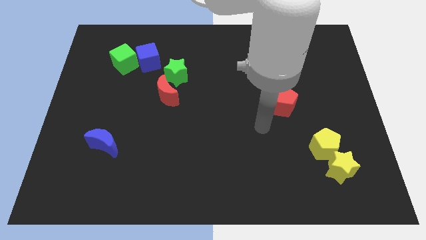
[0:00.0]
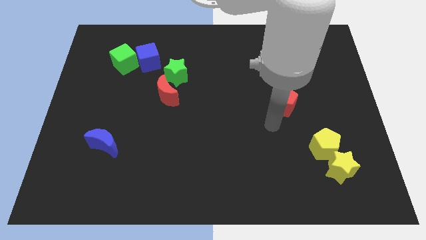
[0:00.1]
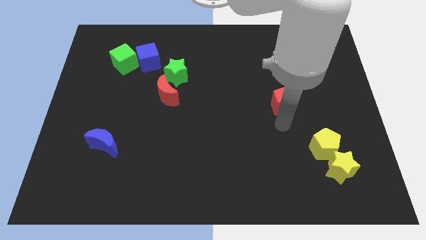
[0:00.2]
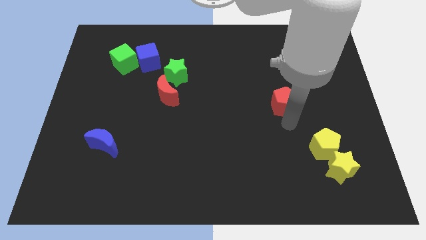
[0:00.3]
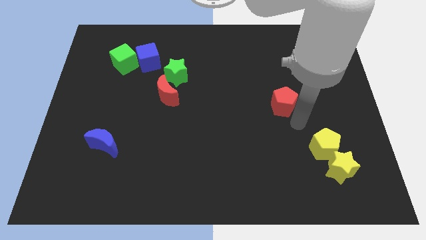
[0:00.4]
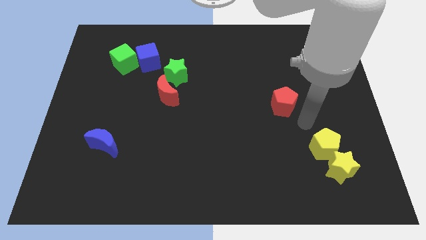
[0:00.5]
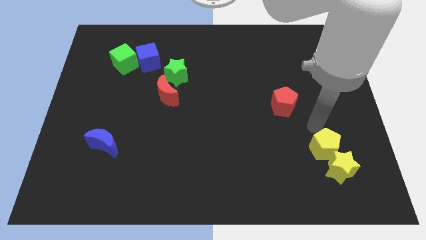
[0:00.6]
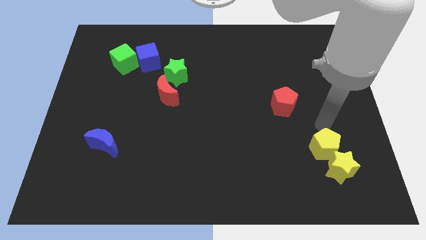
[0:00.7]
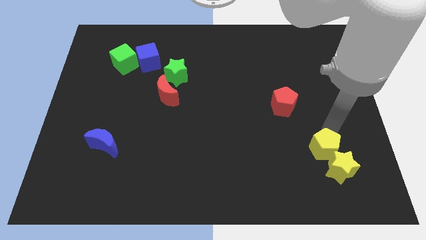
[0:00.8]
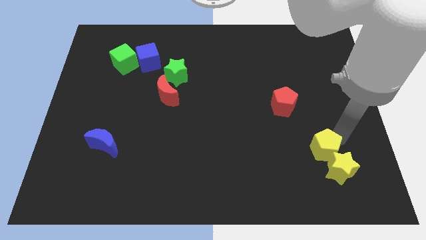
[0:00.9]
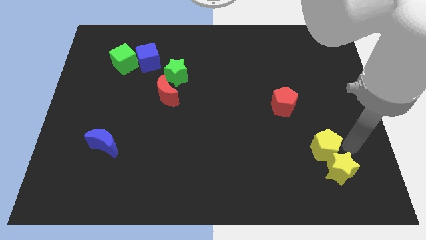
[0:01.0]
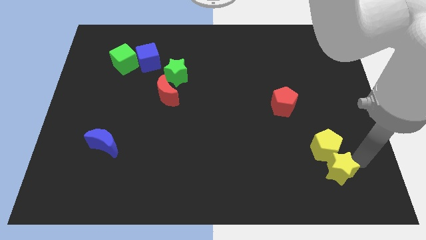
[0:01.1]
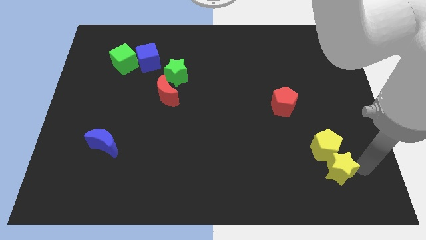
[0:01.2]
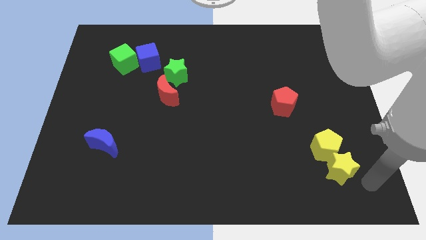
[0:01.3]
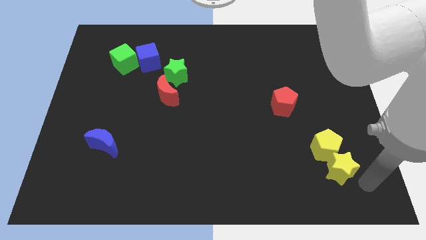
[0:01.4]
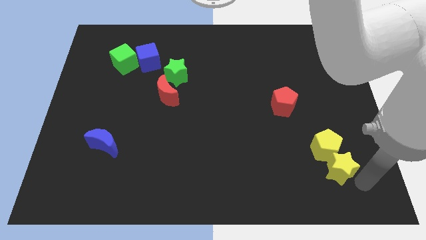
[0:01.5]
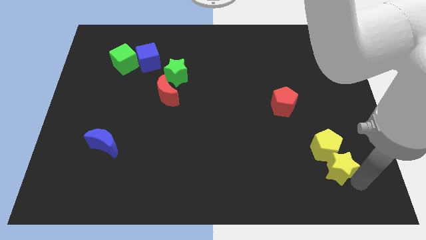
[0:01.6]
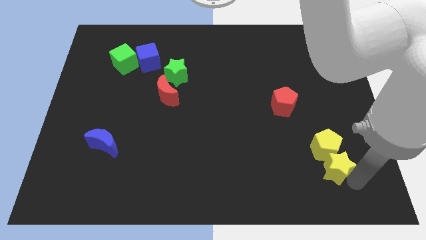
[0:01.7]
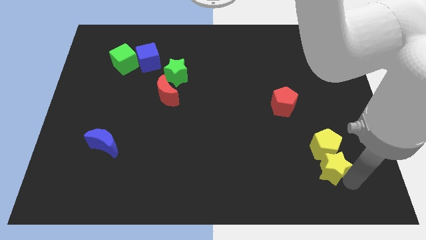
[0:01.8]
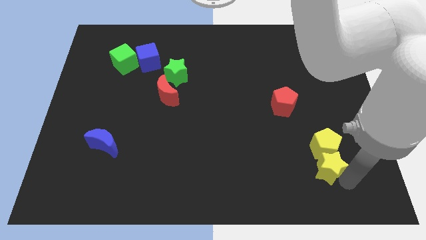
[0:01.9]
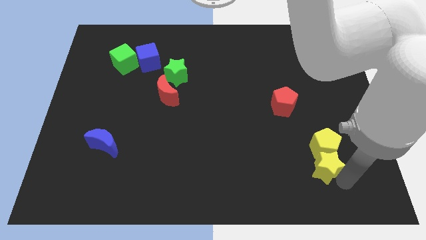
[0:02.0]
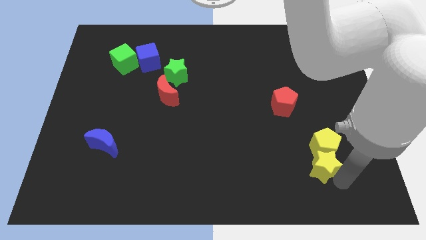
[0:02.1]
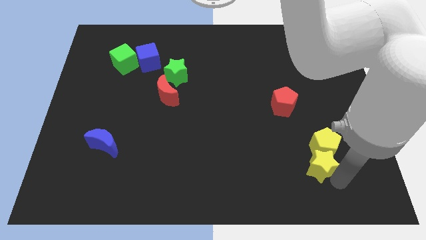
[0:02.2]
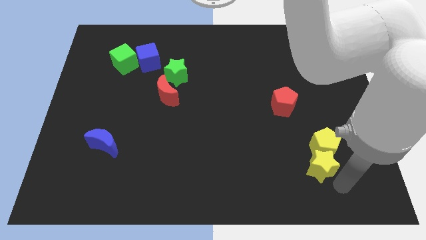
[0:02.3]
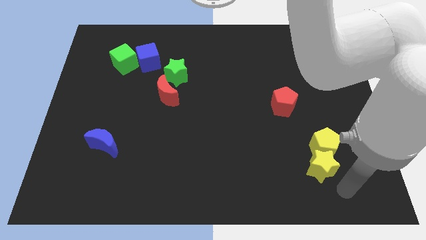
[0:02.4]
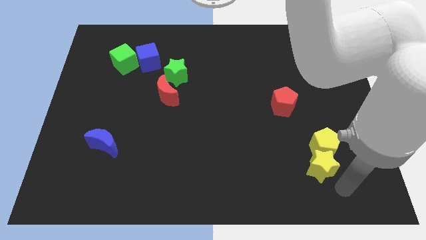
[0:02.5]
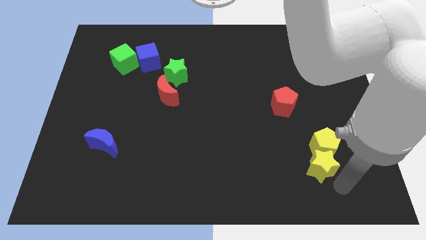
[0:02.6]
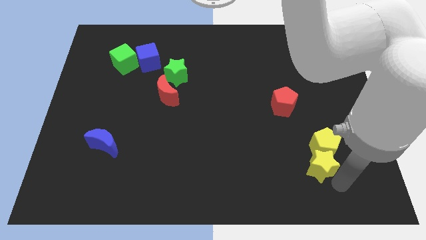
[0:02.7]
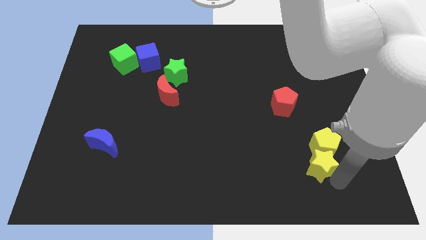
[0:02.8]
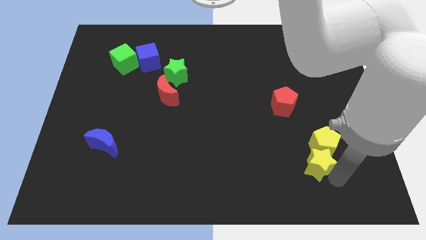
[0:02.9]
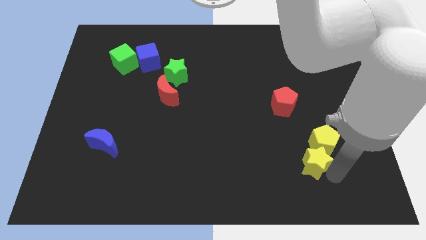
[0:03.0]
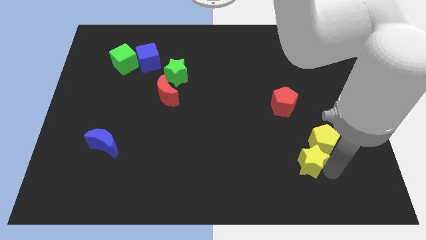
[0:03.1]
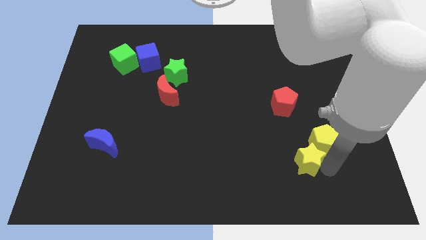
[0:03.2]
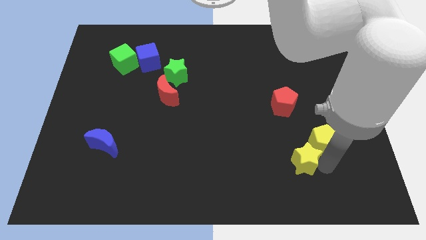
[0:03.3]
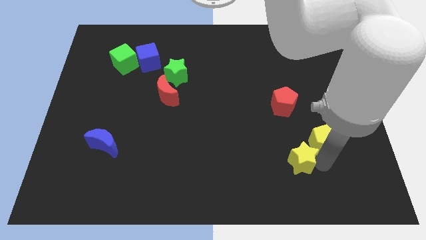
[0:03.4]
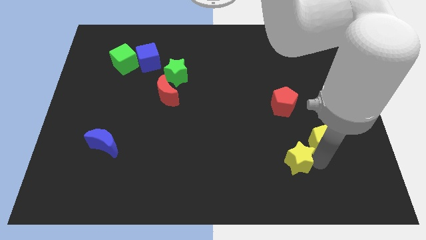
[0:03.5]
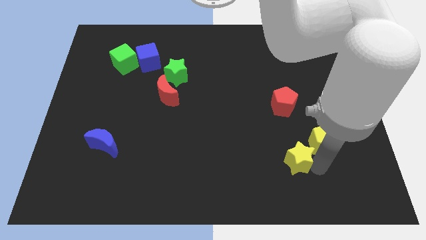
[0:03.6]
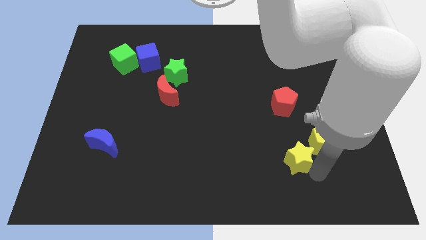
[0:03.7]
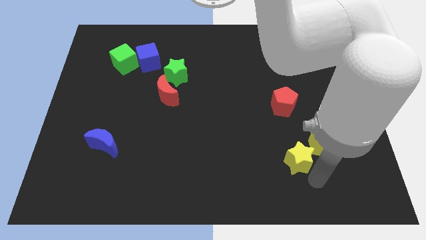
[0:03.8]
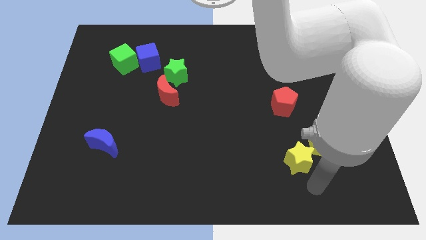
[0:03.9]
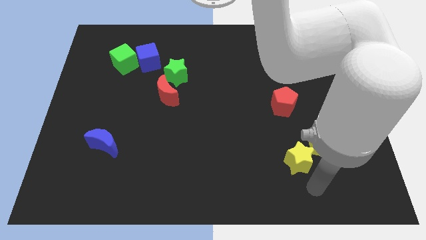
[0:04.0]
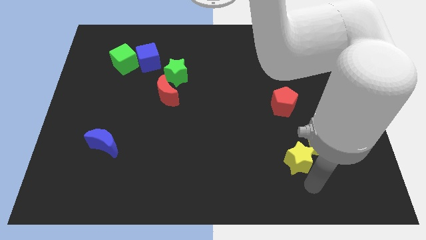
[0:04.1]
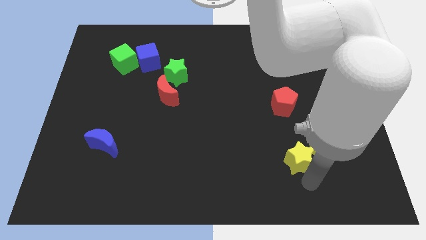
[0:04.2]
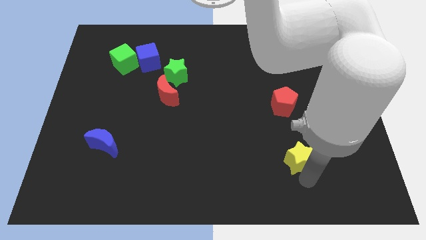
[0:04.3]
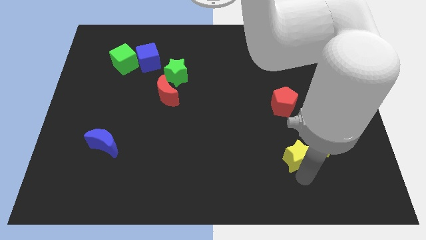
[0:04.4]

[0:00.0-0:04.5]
slightly push the yellow star diagonally up and to the left

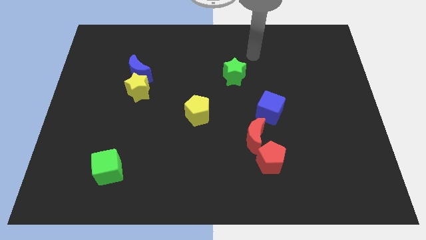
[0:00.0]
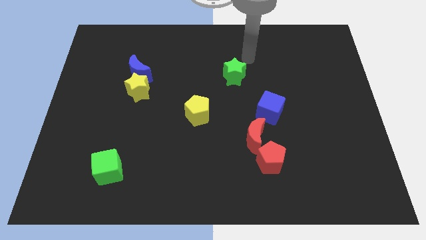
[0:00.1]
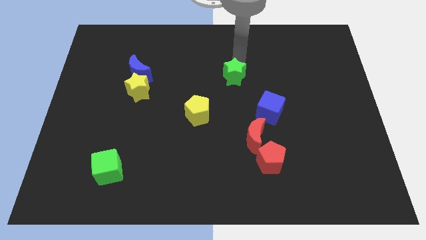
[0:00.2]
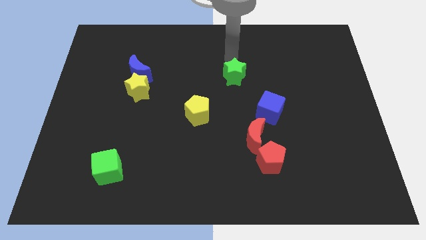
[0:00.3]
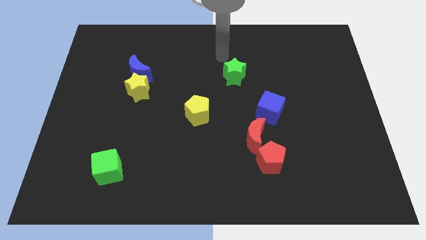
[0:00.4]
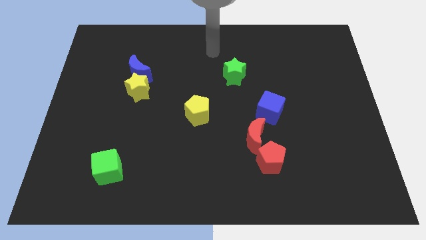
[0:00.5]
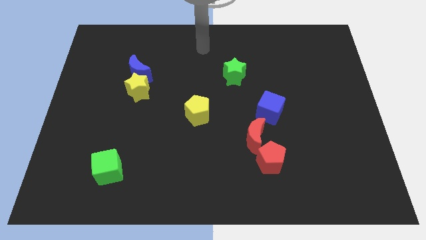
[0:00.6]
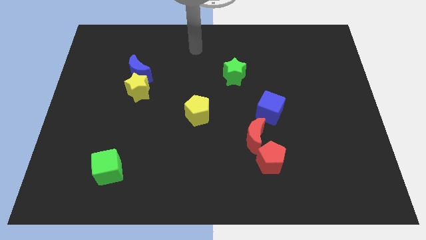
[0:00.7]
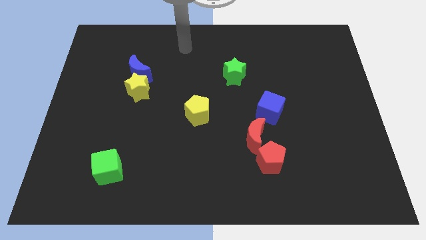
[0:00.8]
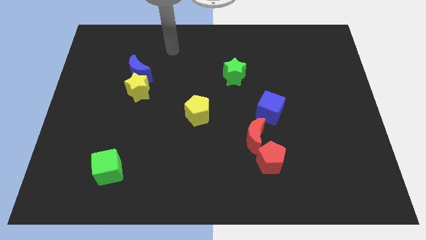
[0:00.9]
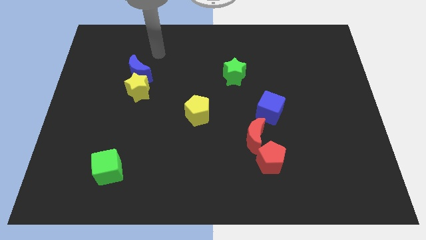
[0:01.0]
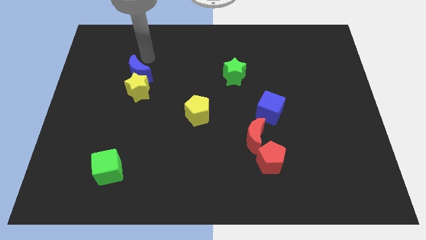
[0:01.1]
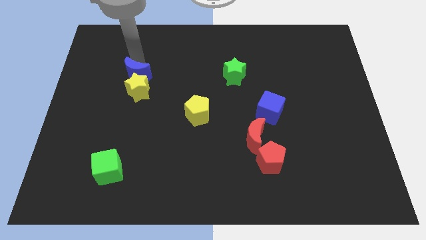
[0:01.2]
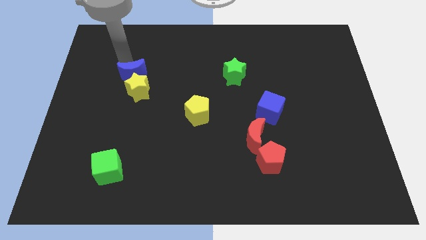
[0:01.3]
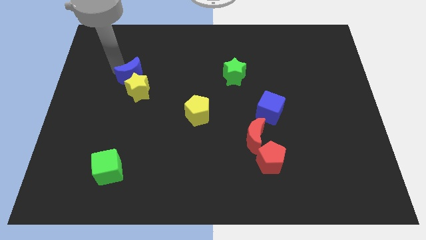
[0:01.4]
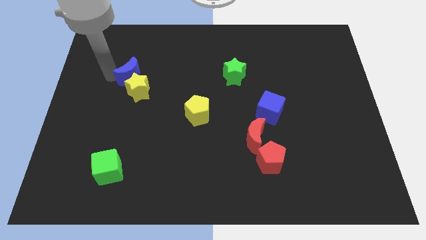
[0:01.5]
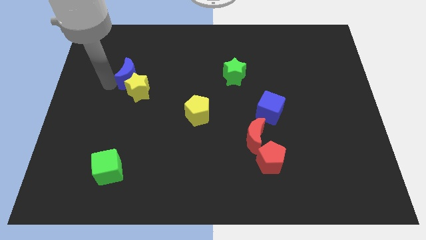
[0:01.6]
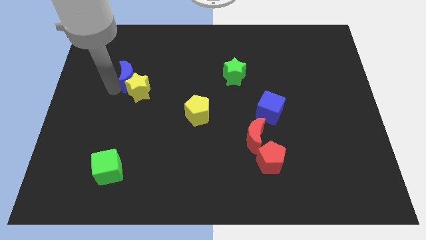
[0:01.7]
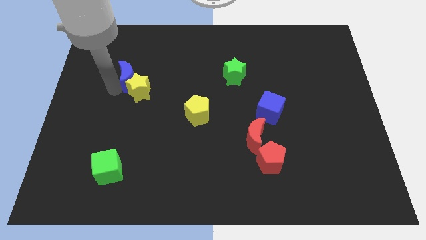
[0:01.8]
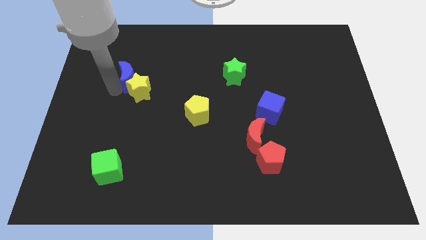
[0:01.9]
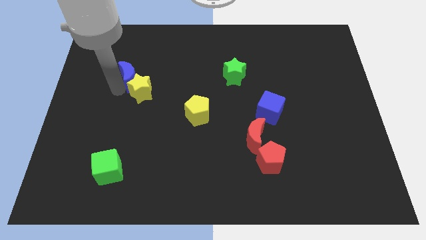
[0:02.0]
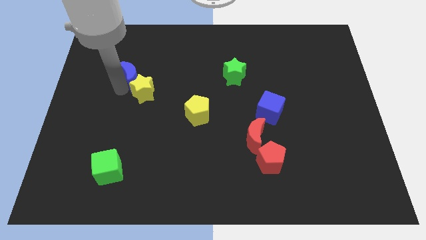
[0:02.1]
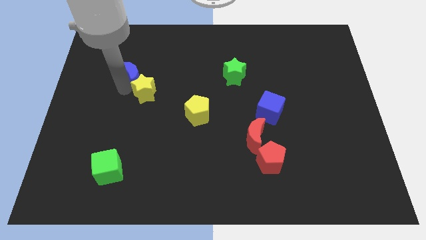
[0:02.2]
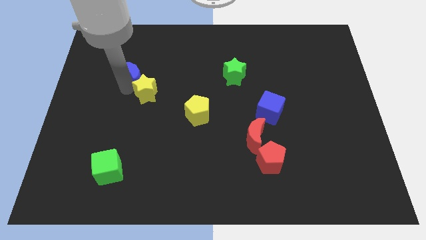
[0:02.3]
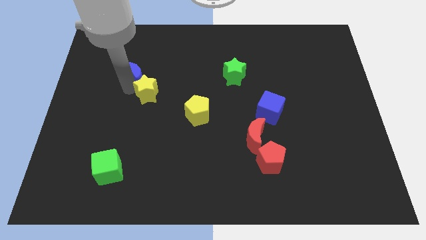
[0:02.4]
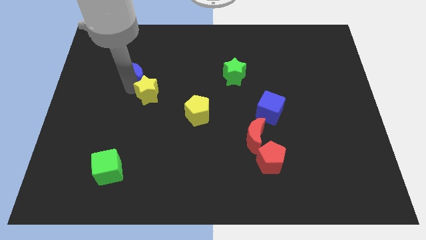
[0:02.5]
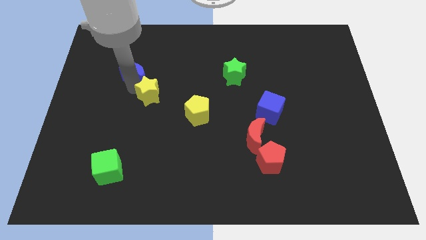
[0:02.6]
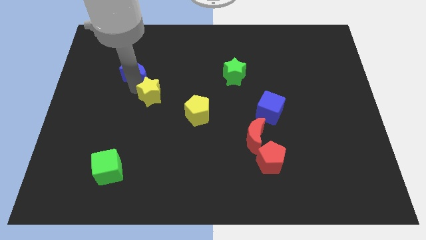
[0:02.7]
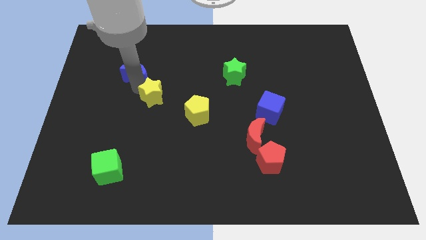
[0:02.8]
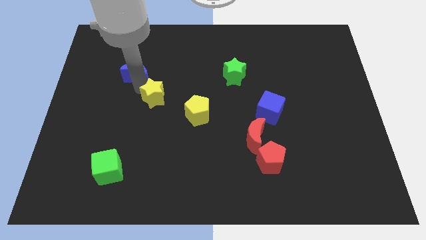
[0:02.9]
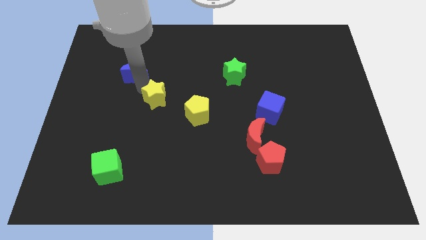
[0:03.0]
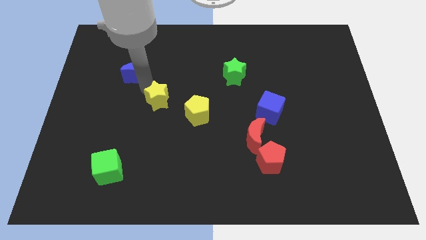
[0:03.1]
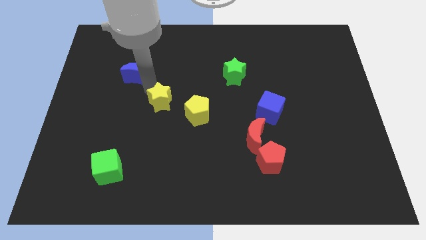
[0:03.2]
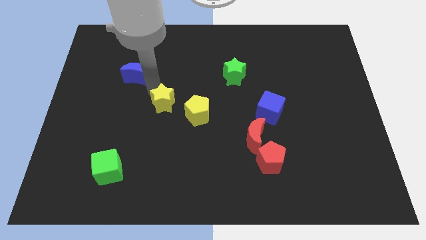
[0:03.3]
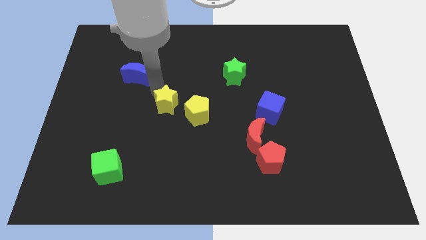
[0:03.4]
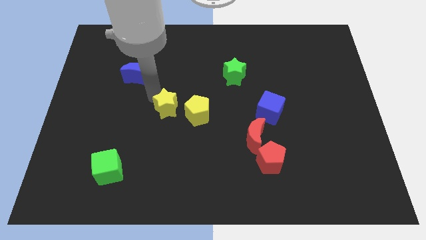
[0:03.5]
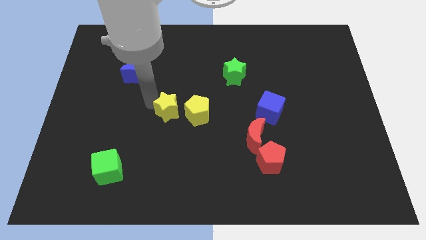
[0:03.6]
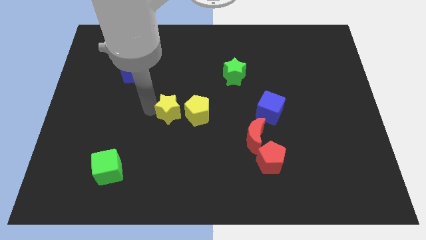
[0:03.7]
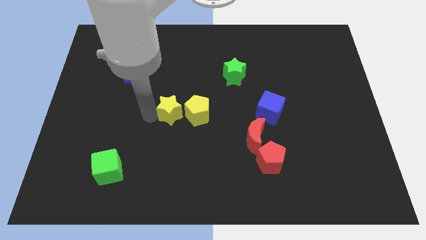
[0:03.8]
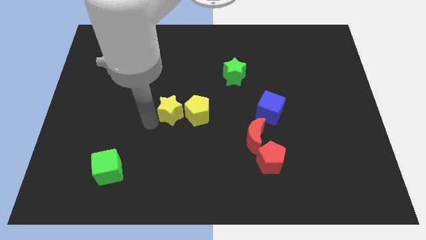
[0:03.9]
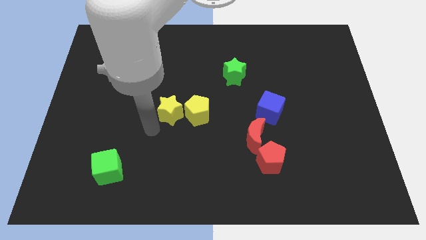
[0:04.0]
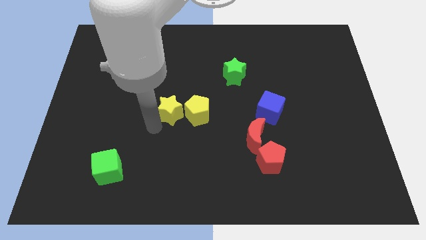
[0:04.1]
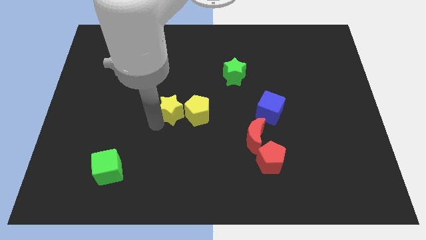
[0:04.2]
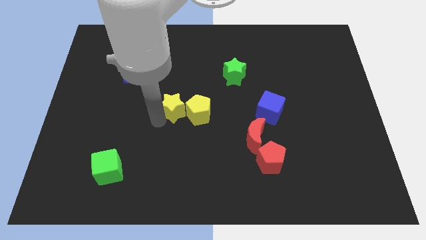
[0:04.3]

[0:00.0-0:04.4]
slightly slide the yellow star right
